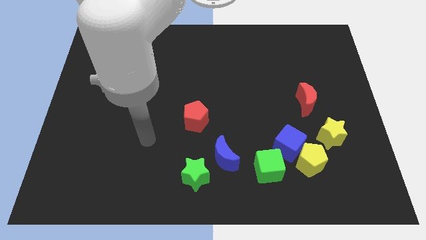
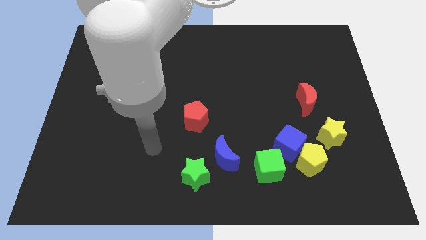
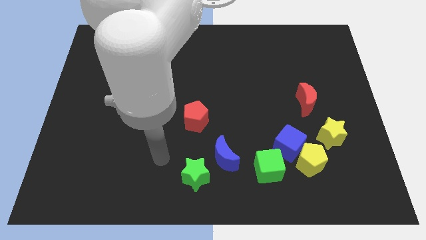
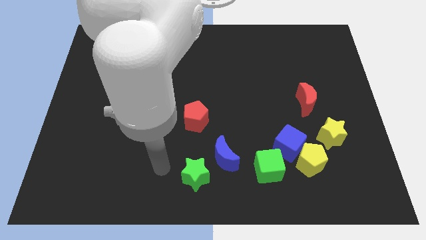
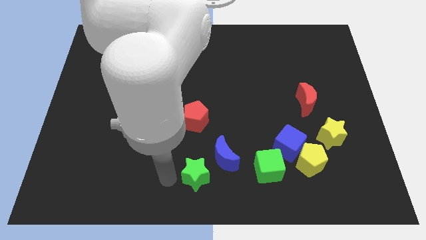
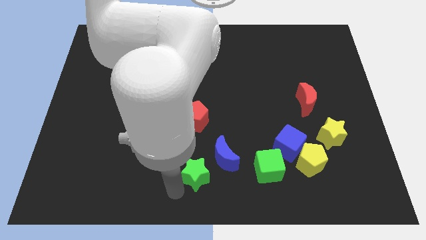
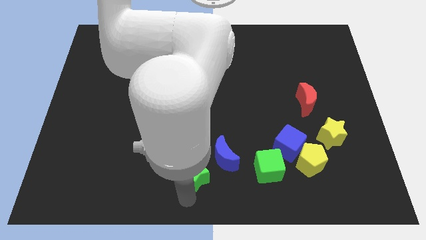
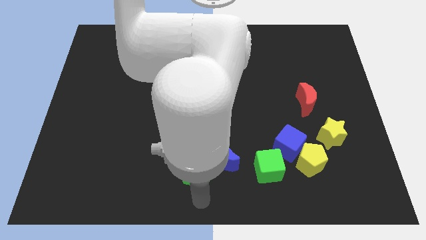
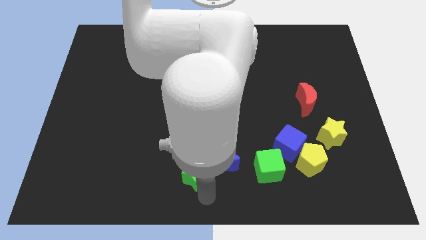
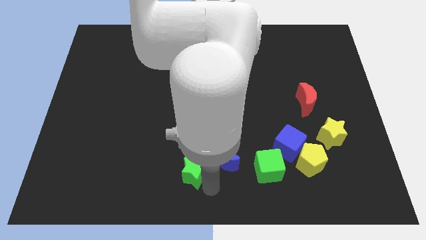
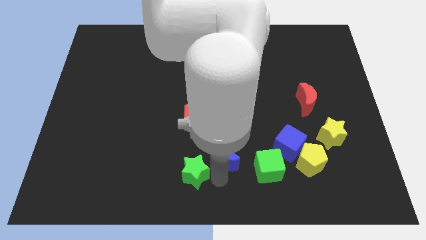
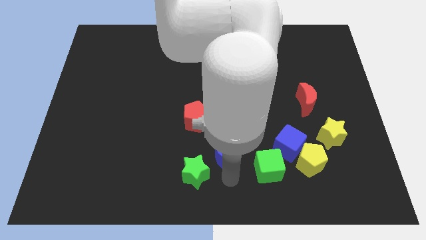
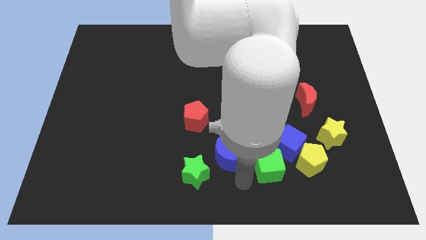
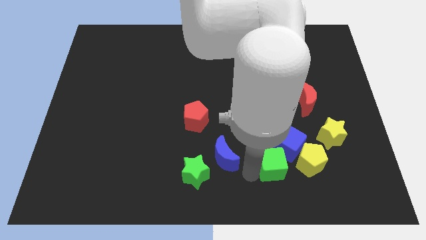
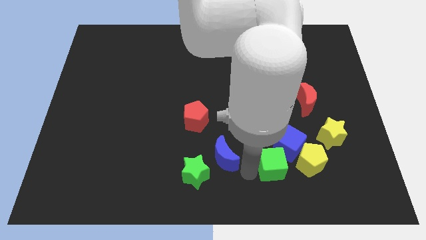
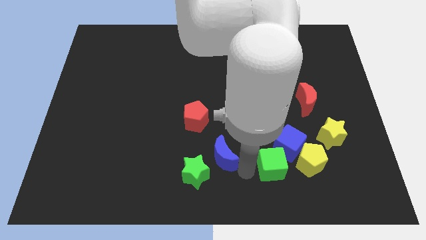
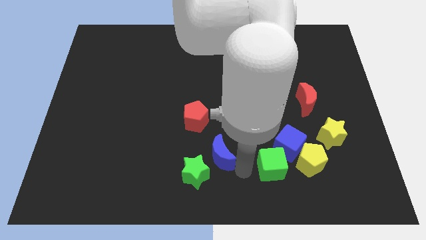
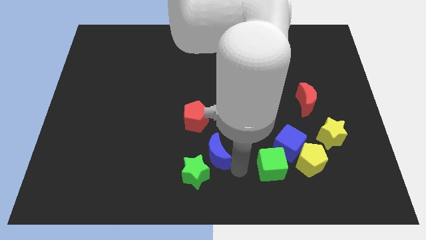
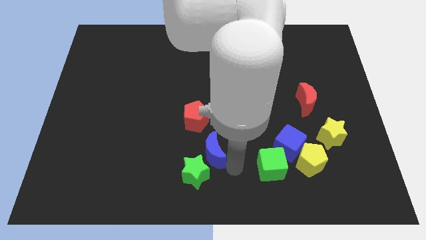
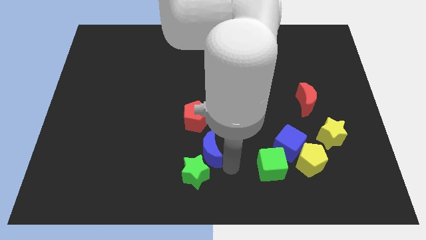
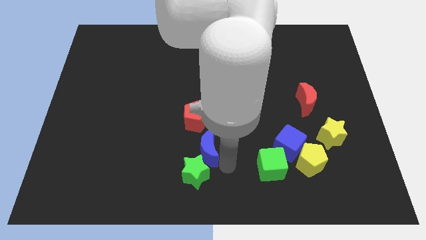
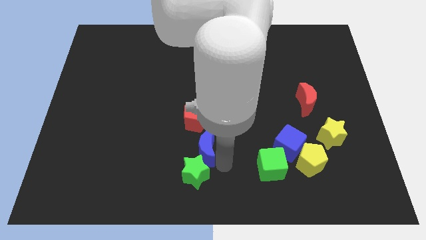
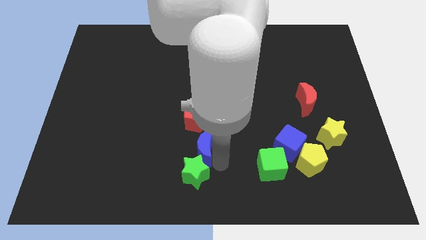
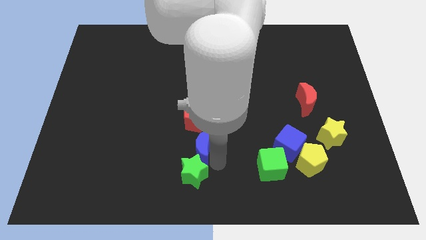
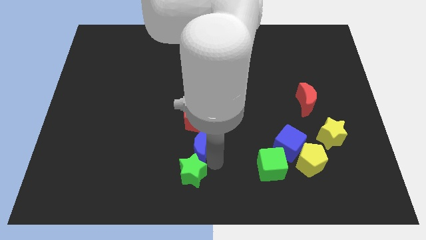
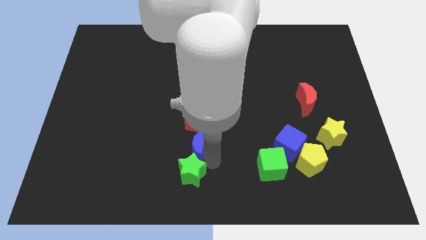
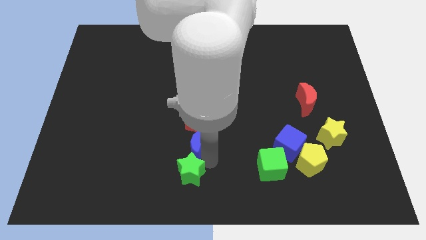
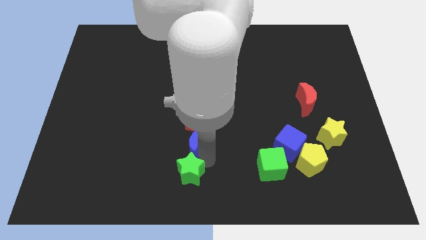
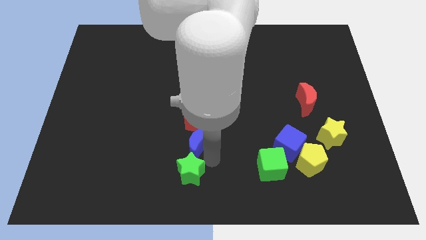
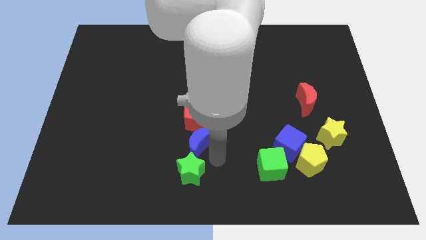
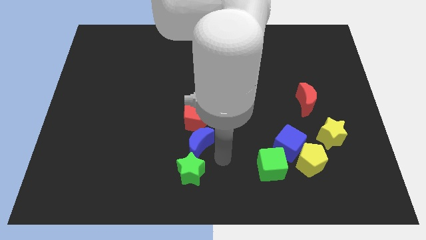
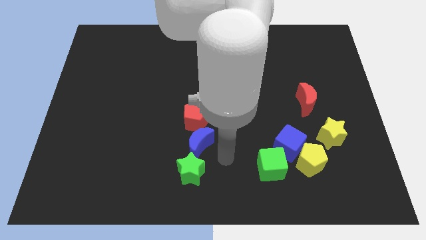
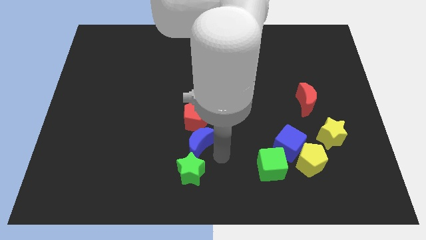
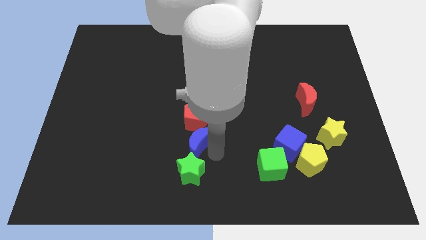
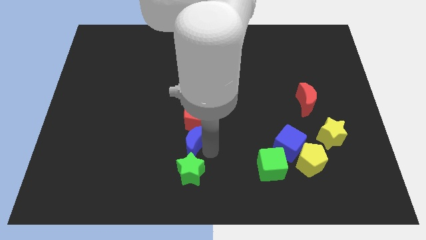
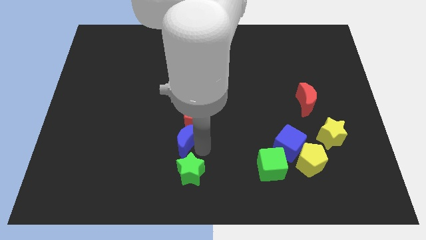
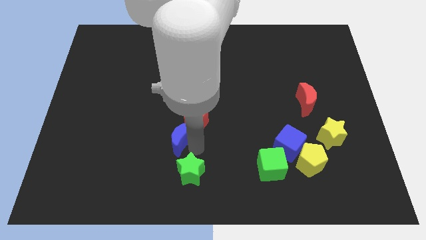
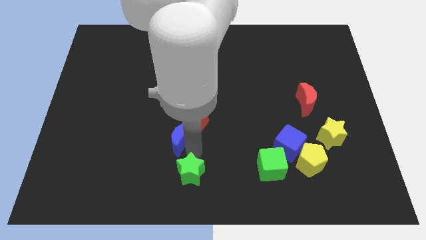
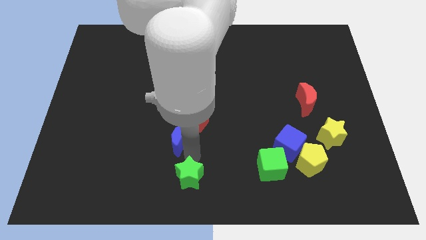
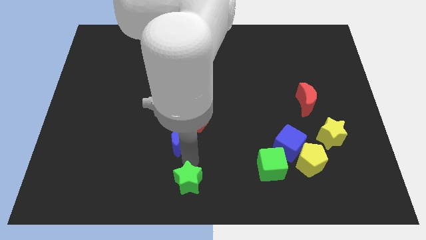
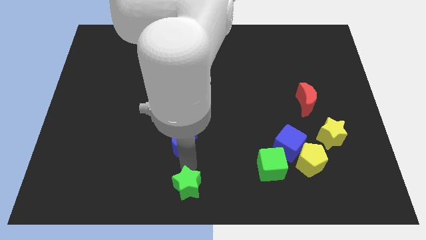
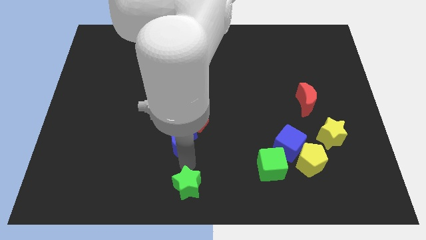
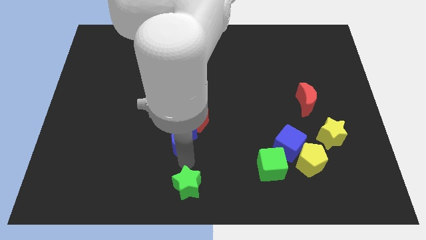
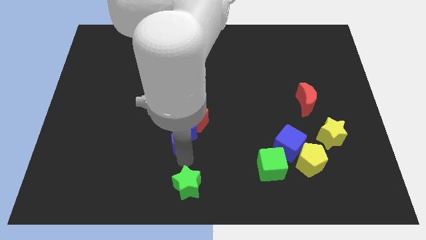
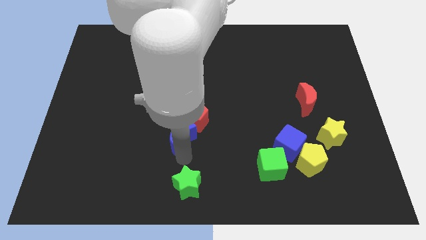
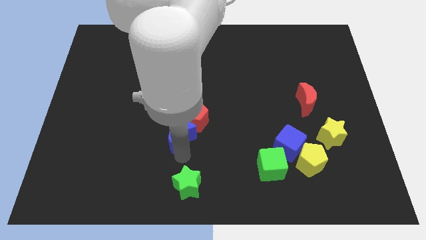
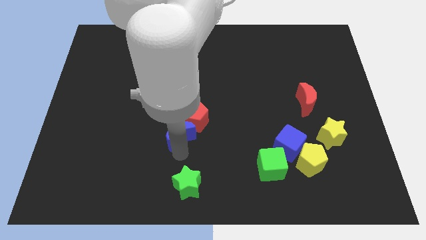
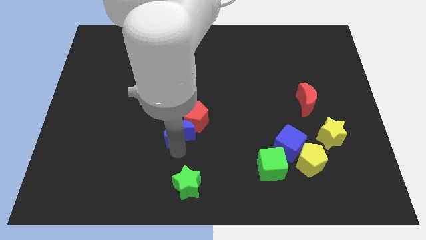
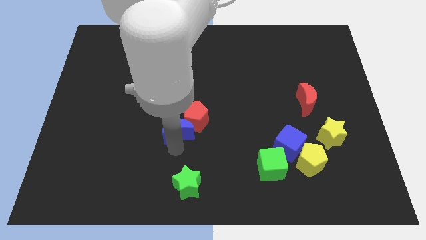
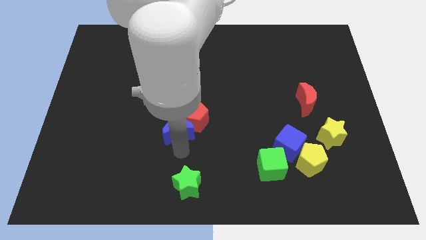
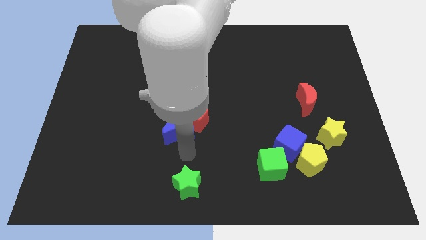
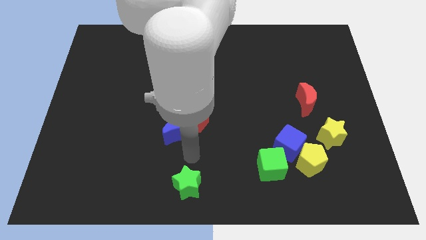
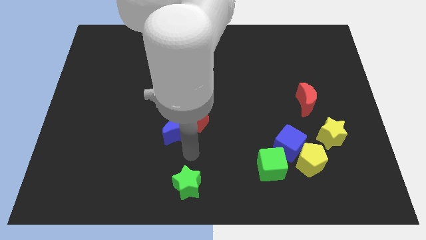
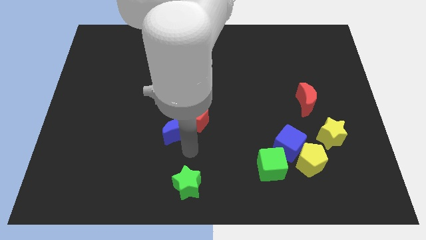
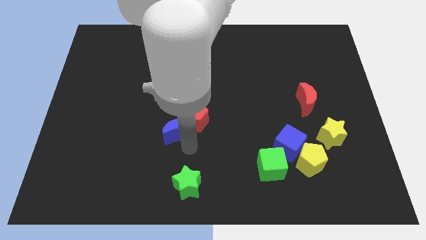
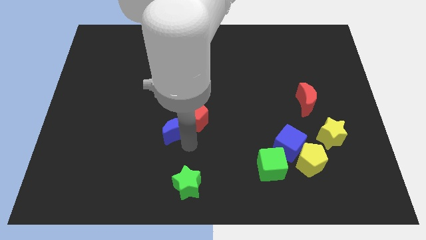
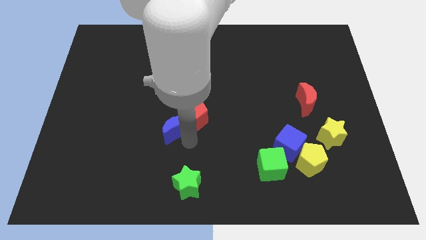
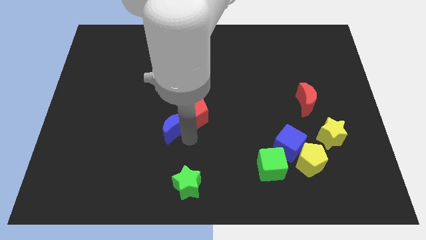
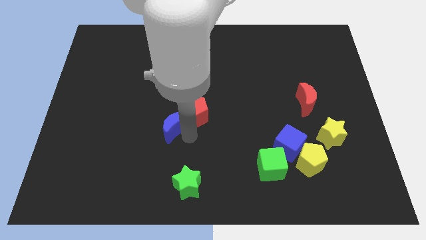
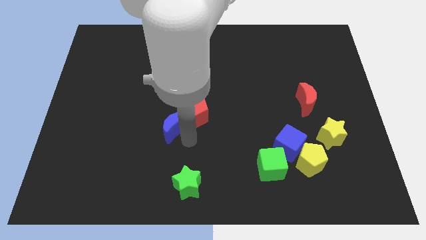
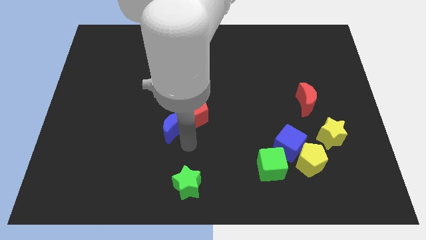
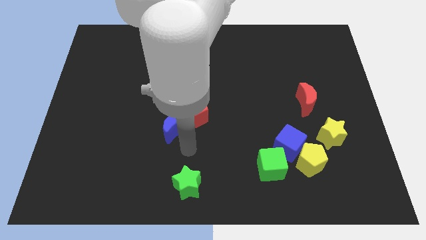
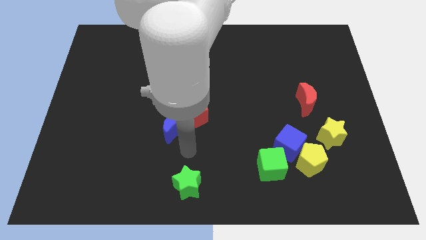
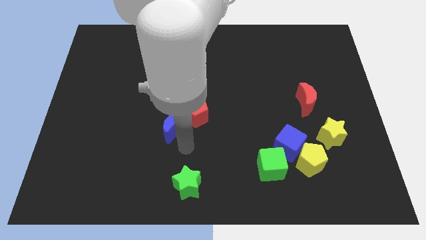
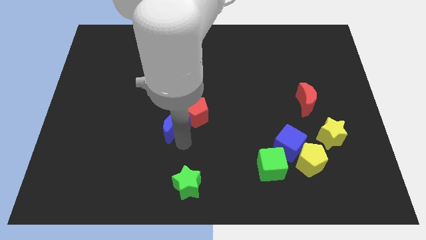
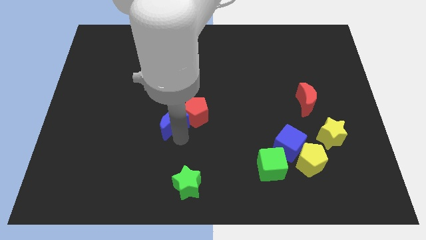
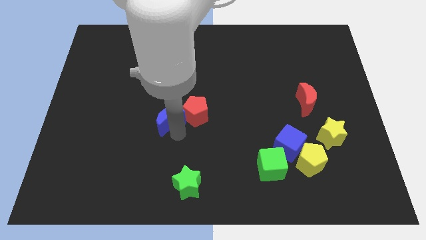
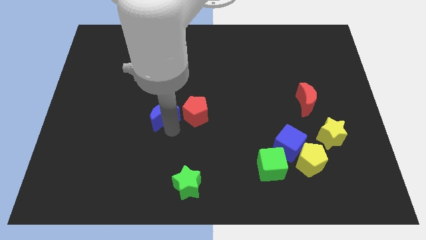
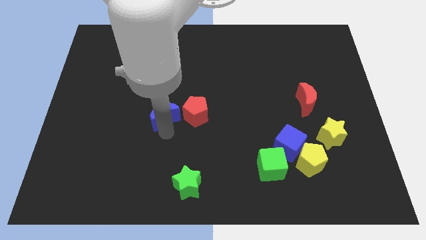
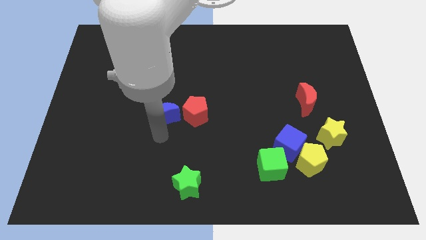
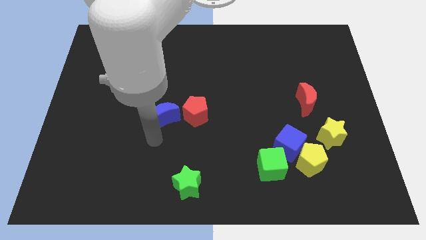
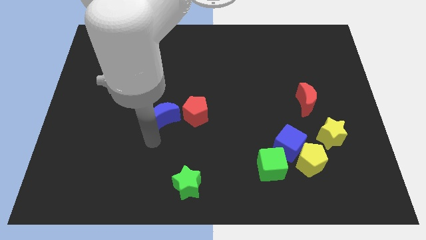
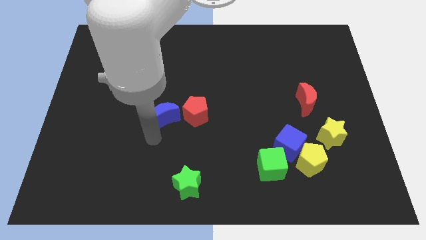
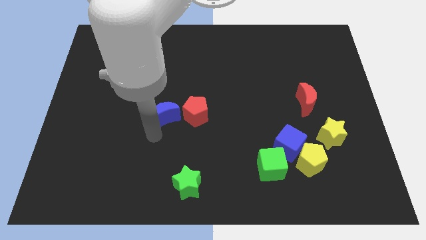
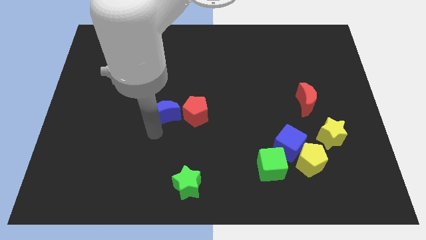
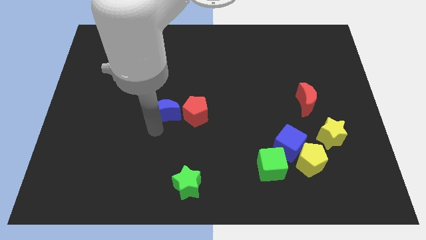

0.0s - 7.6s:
slide the blue moon to the top left side of the red pentagon
